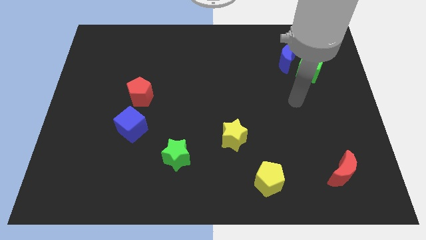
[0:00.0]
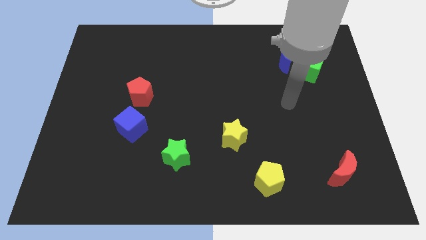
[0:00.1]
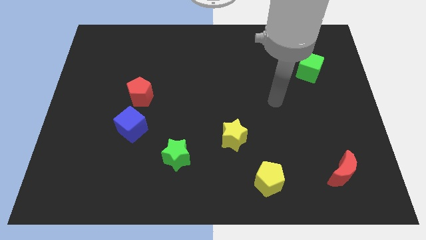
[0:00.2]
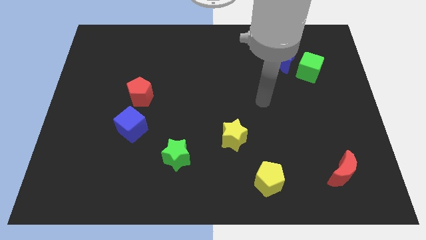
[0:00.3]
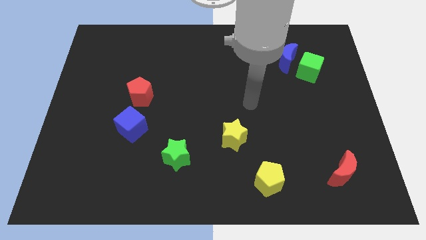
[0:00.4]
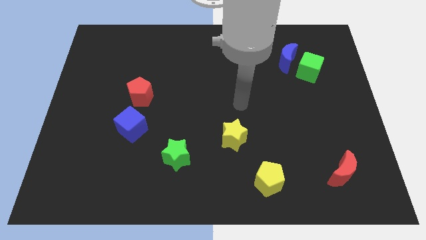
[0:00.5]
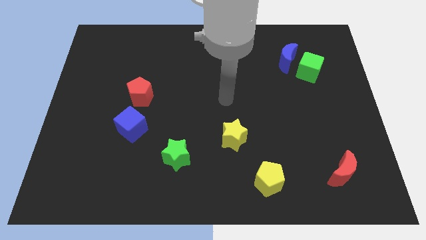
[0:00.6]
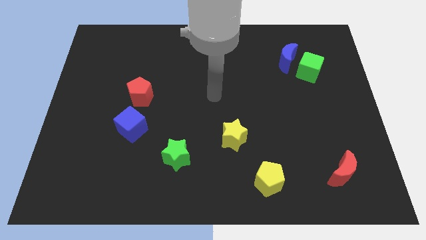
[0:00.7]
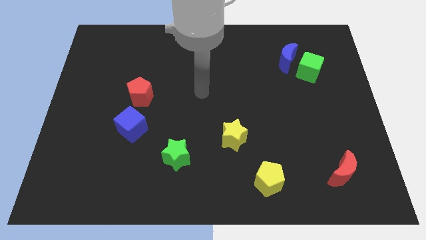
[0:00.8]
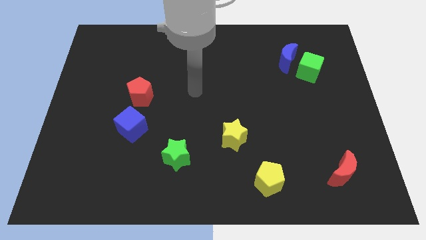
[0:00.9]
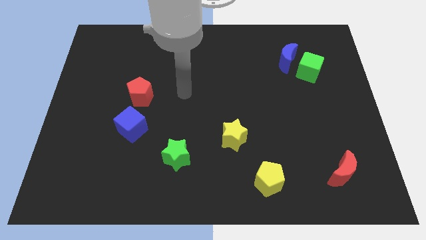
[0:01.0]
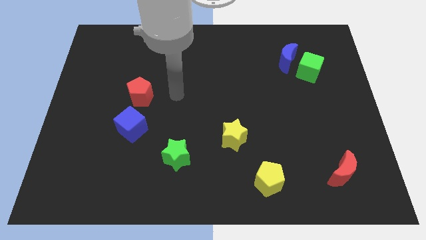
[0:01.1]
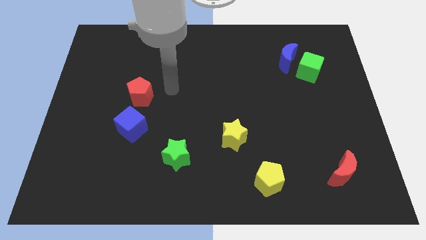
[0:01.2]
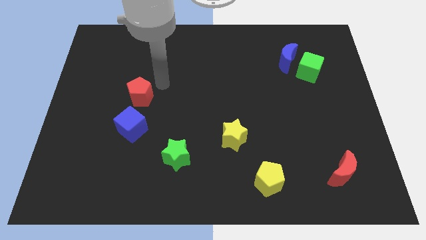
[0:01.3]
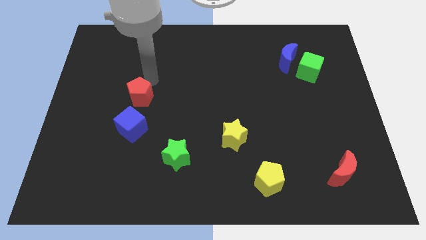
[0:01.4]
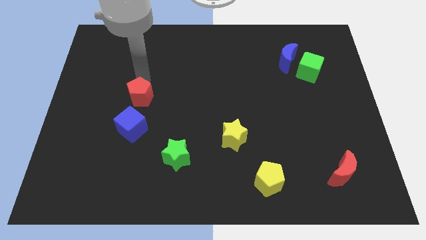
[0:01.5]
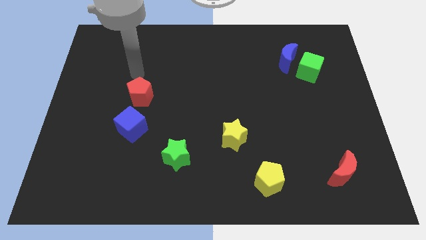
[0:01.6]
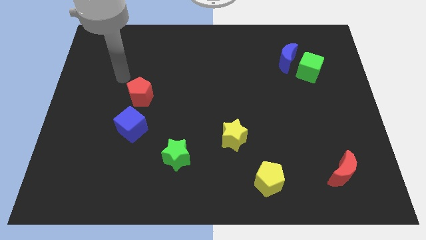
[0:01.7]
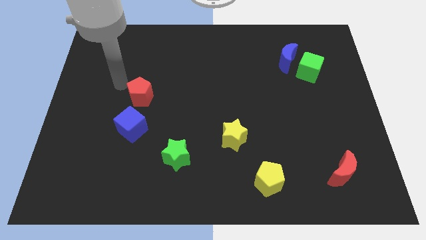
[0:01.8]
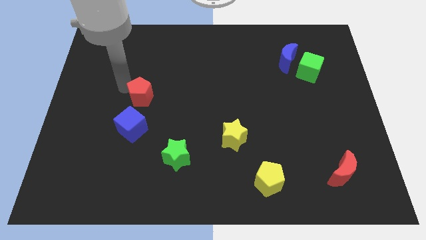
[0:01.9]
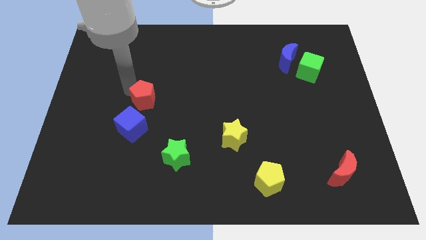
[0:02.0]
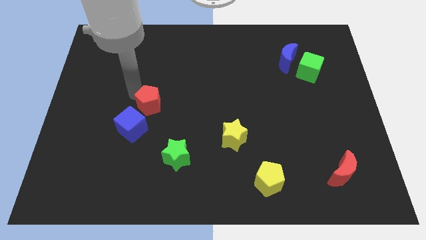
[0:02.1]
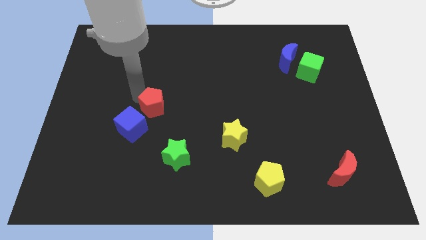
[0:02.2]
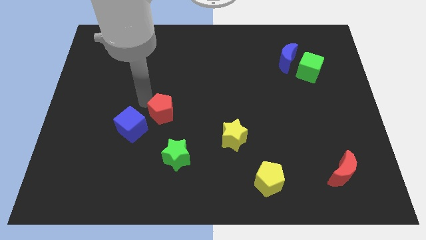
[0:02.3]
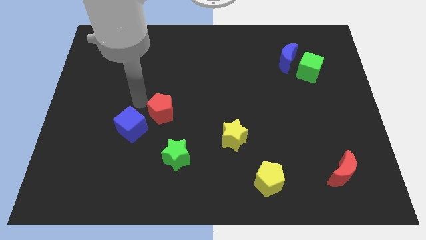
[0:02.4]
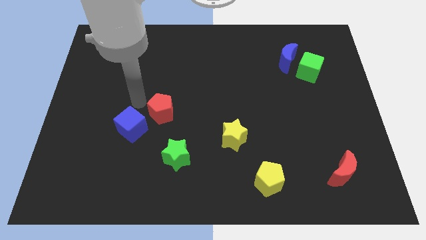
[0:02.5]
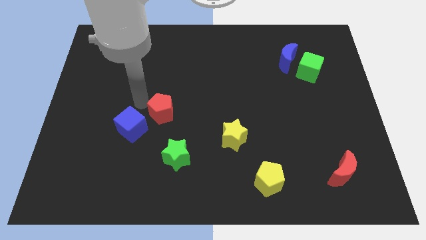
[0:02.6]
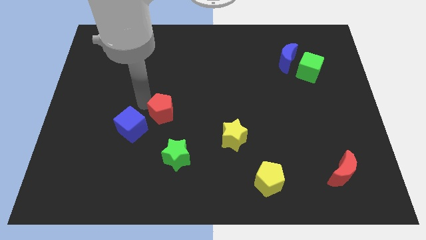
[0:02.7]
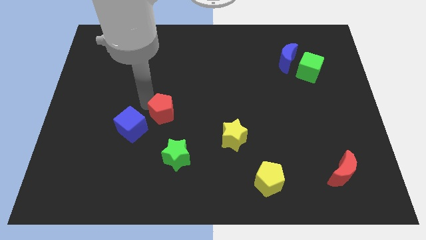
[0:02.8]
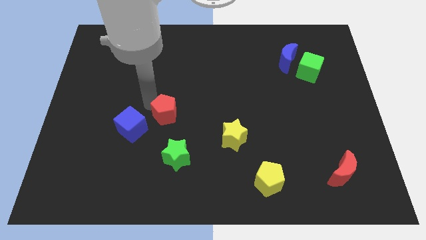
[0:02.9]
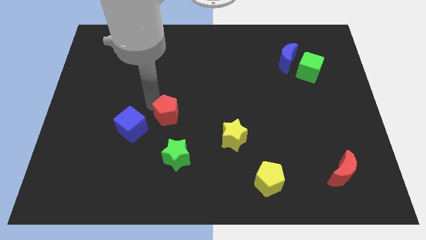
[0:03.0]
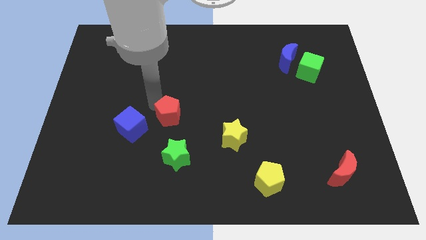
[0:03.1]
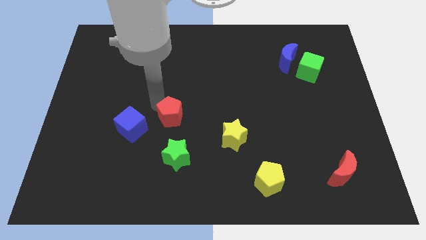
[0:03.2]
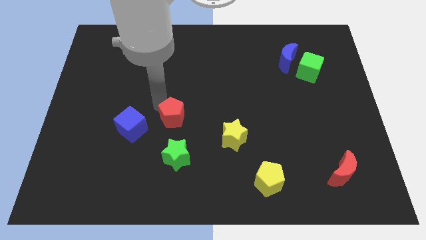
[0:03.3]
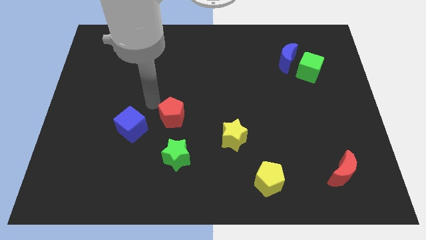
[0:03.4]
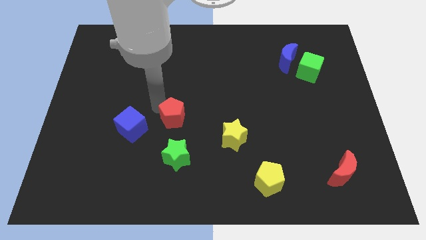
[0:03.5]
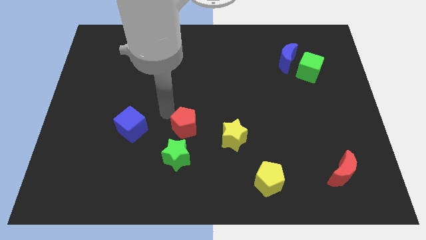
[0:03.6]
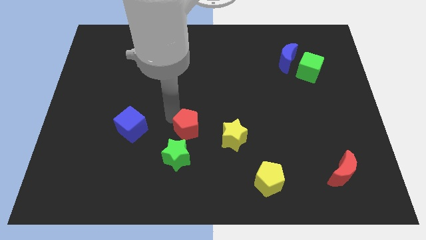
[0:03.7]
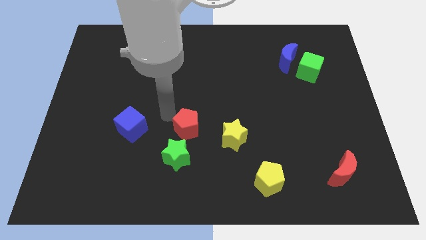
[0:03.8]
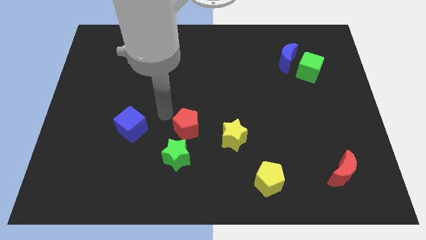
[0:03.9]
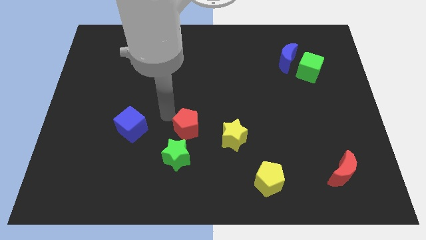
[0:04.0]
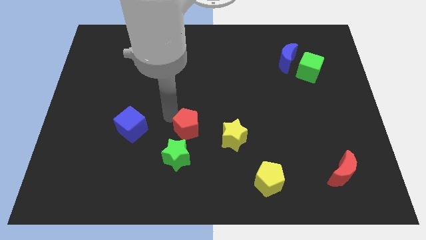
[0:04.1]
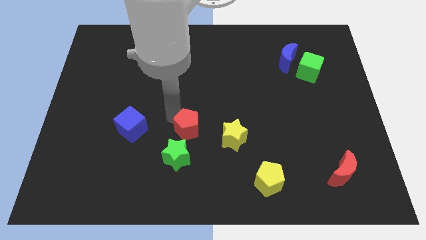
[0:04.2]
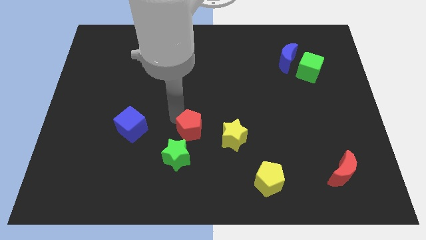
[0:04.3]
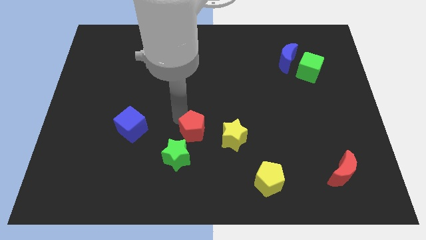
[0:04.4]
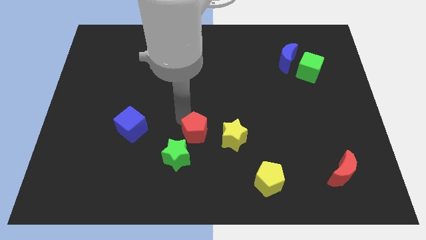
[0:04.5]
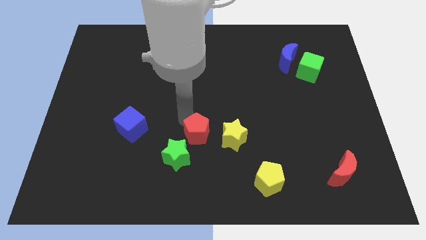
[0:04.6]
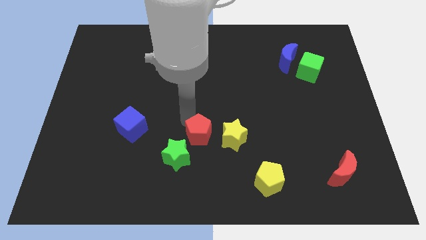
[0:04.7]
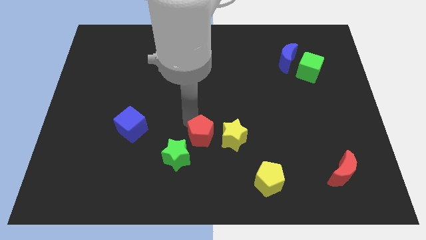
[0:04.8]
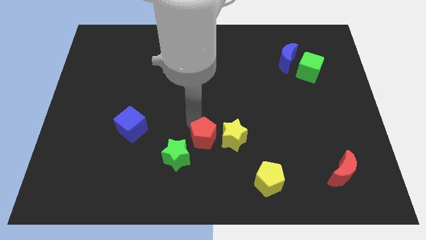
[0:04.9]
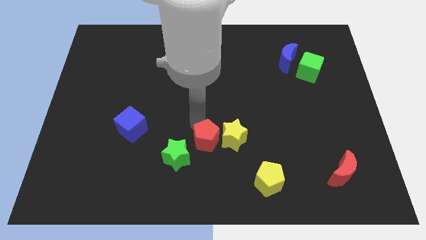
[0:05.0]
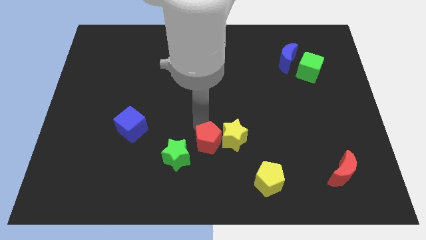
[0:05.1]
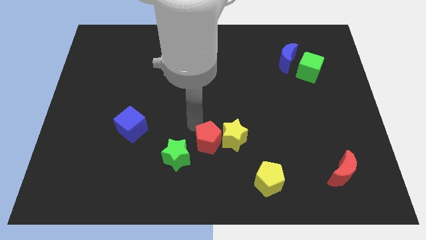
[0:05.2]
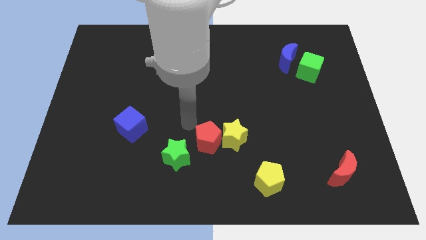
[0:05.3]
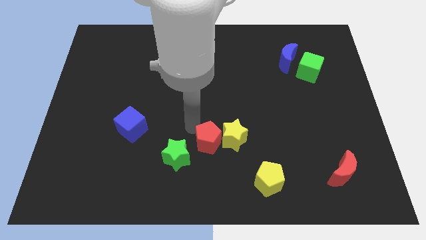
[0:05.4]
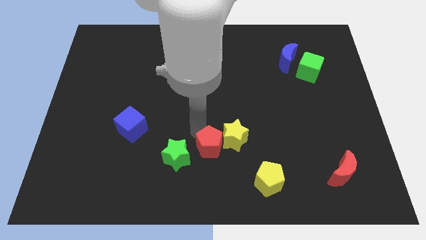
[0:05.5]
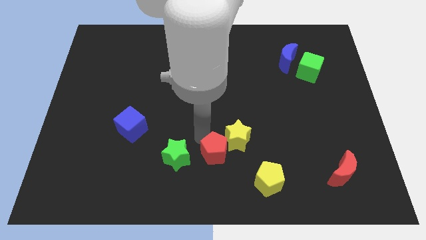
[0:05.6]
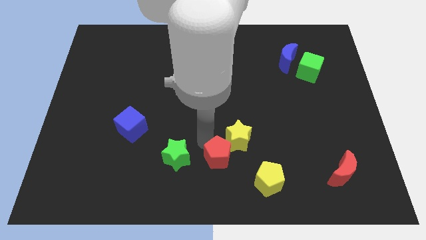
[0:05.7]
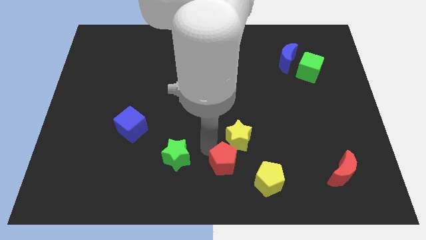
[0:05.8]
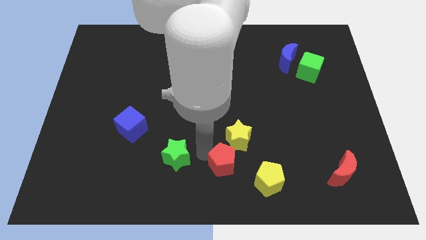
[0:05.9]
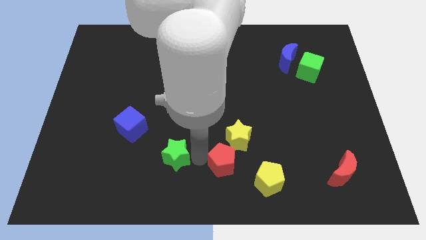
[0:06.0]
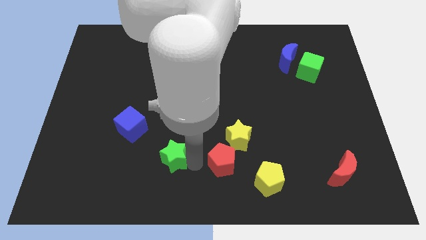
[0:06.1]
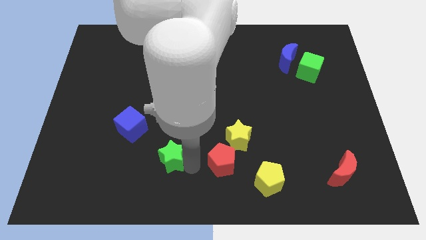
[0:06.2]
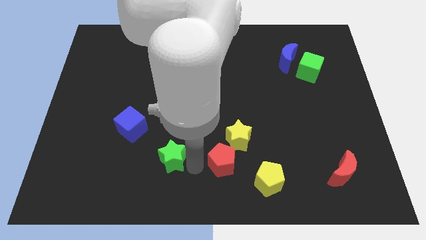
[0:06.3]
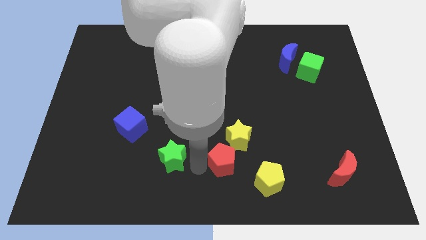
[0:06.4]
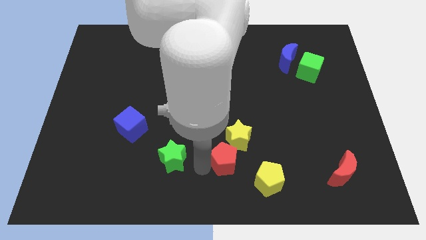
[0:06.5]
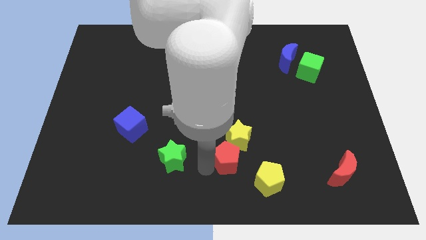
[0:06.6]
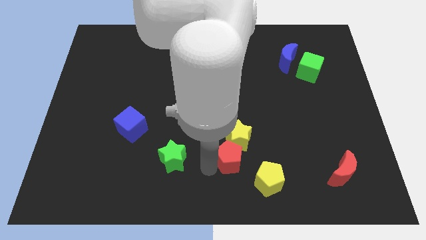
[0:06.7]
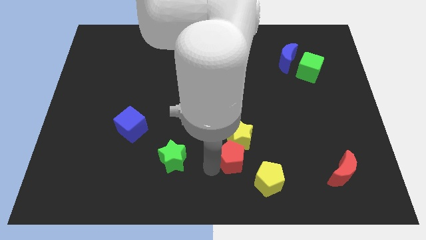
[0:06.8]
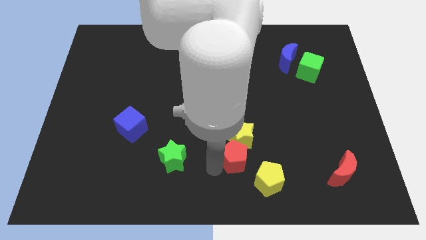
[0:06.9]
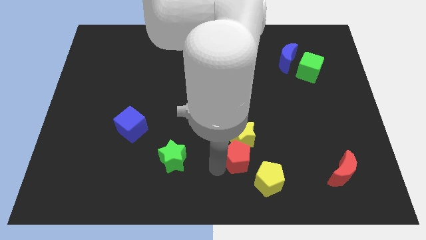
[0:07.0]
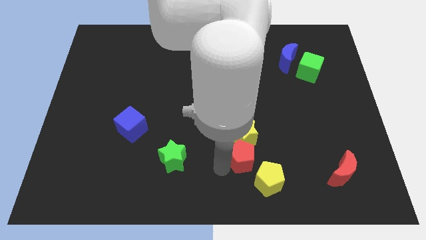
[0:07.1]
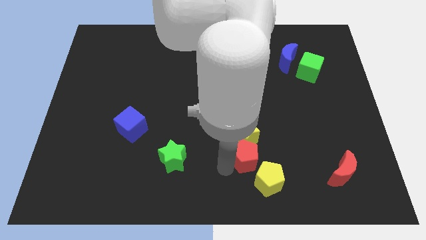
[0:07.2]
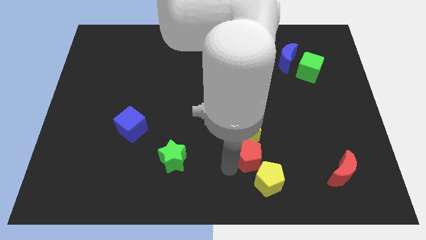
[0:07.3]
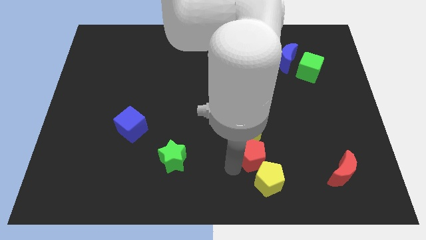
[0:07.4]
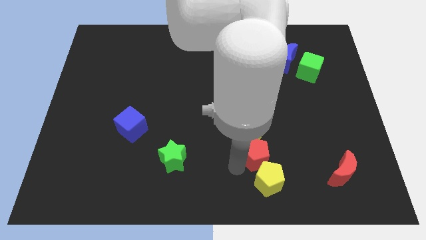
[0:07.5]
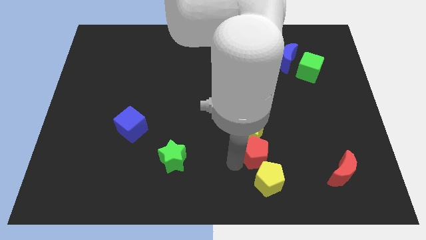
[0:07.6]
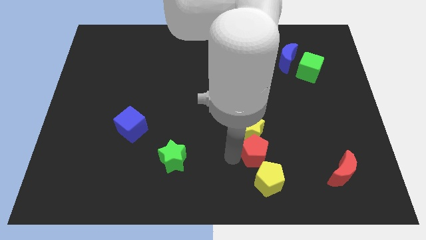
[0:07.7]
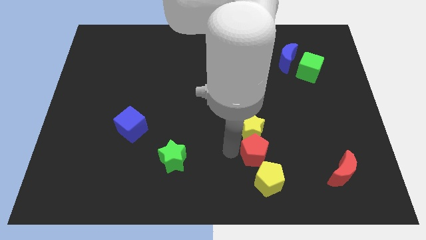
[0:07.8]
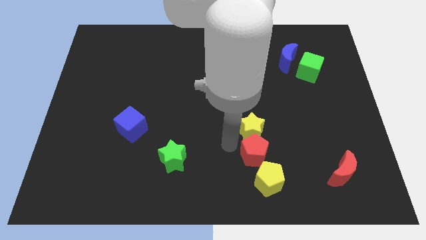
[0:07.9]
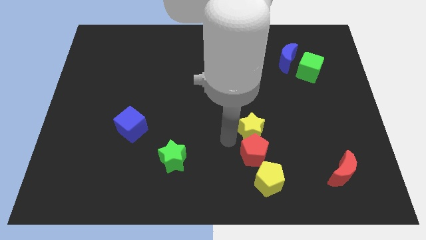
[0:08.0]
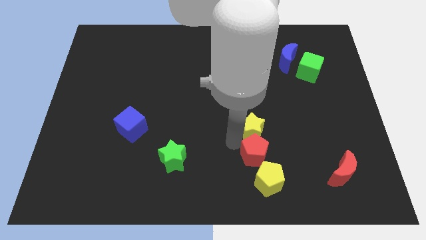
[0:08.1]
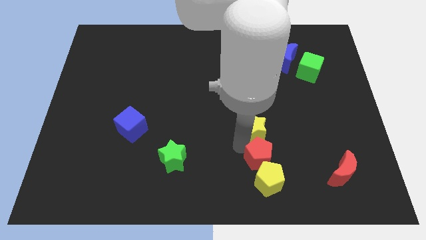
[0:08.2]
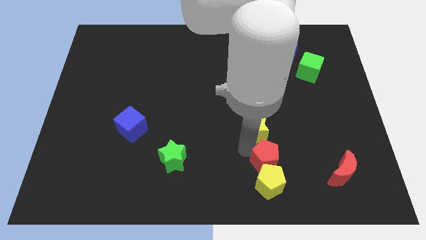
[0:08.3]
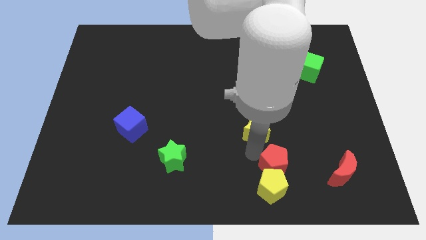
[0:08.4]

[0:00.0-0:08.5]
push the red pentagon to the left side of the red moon
